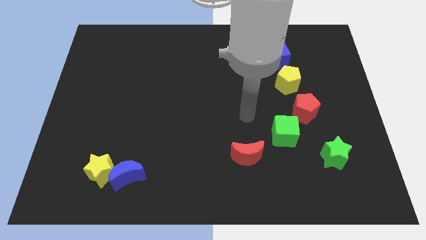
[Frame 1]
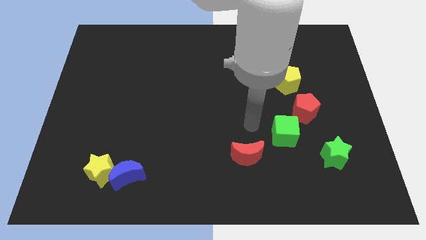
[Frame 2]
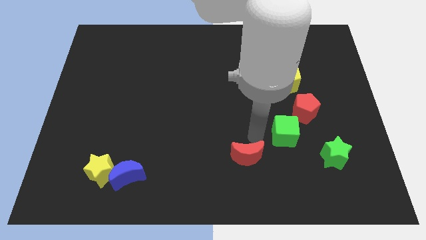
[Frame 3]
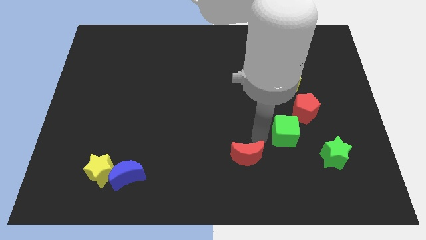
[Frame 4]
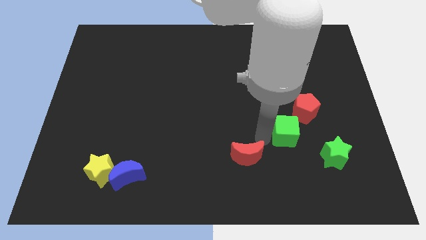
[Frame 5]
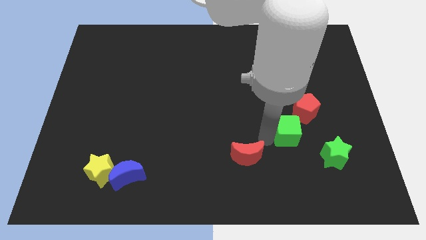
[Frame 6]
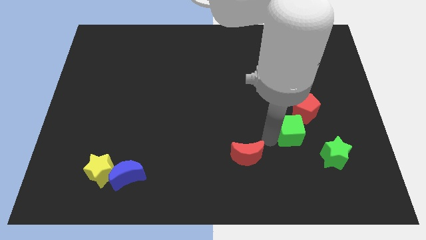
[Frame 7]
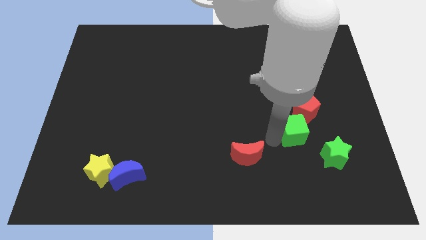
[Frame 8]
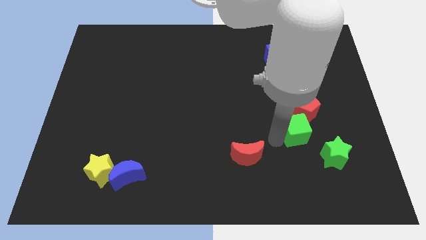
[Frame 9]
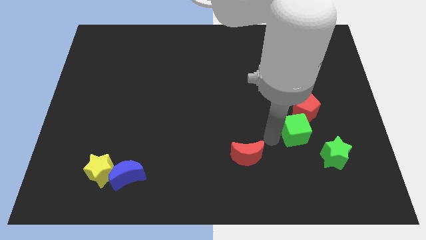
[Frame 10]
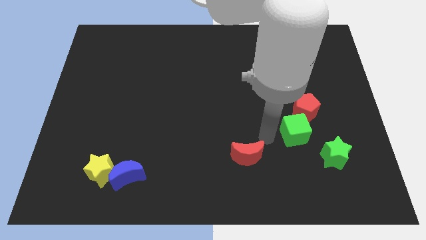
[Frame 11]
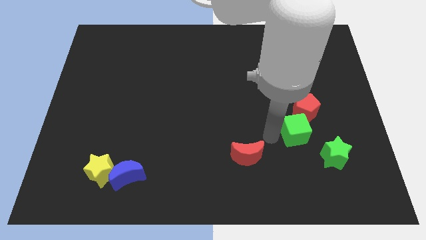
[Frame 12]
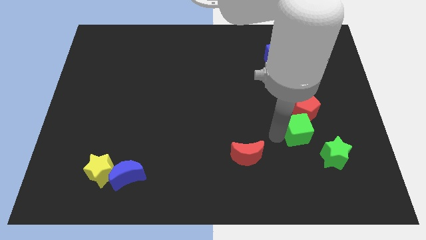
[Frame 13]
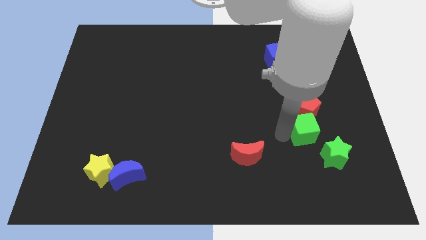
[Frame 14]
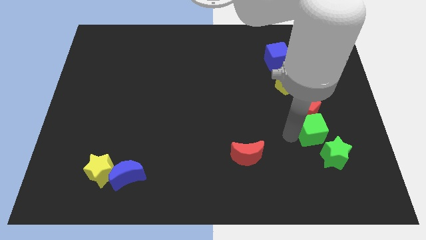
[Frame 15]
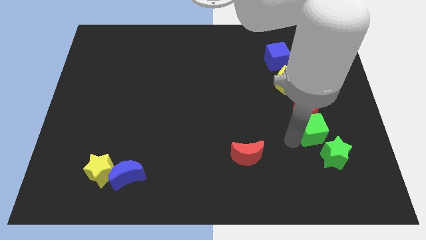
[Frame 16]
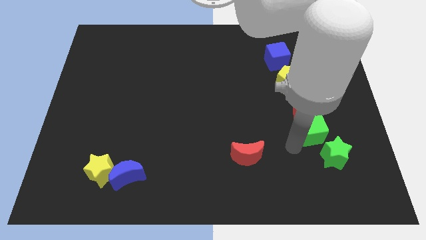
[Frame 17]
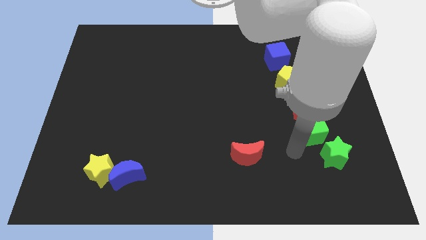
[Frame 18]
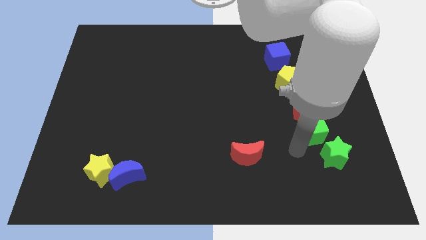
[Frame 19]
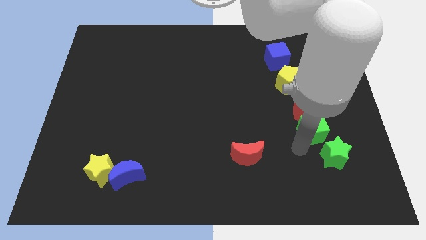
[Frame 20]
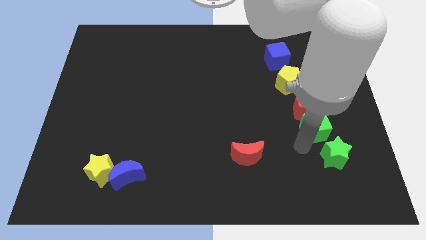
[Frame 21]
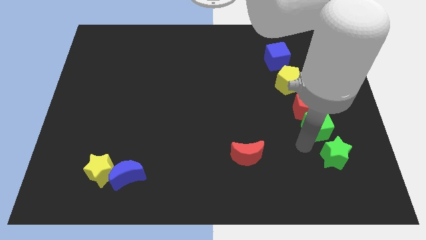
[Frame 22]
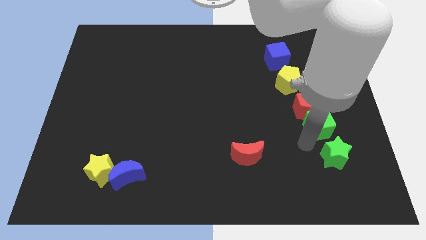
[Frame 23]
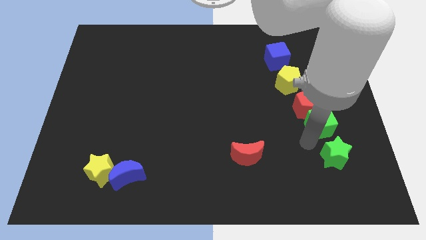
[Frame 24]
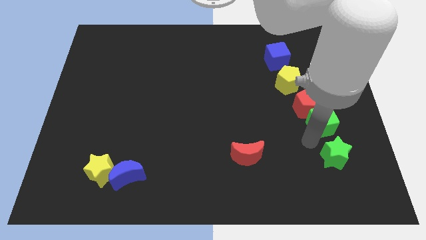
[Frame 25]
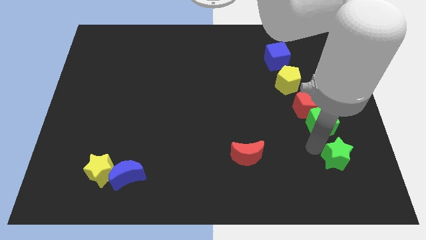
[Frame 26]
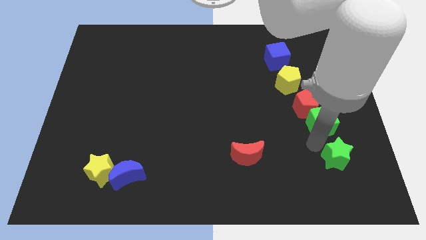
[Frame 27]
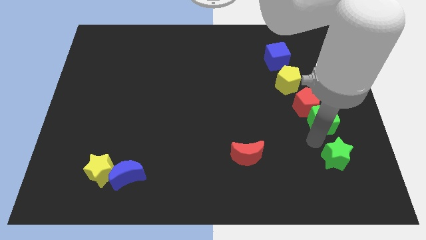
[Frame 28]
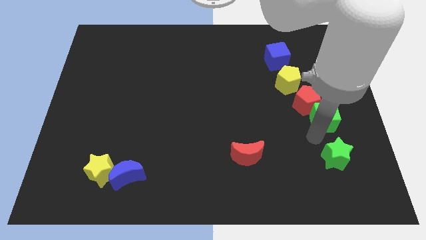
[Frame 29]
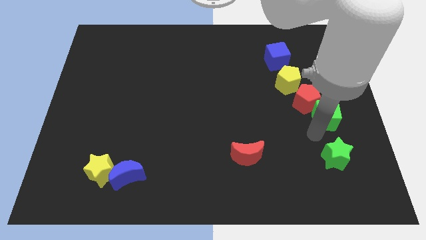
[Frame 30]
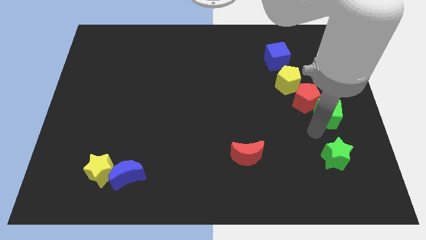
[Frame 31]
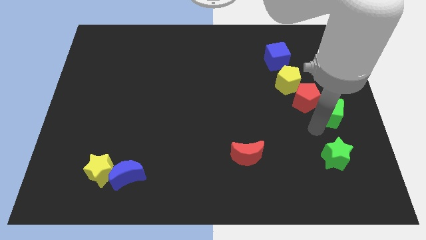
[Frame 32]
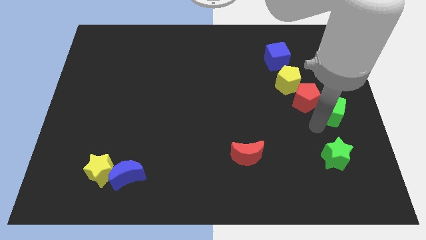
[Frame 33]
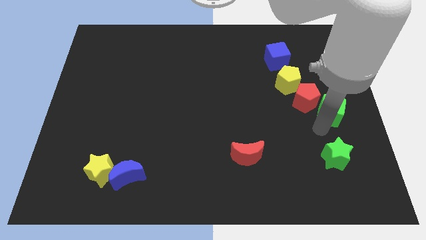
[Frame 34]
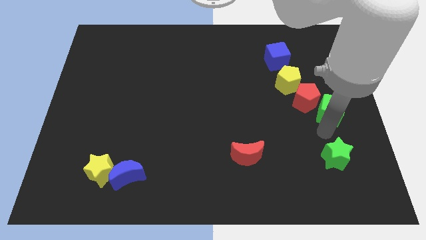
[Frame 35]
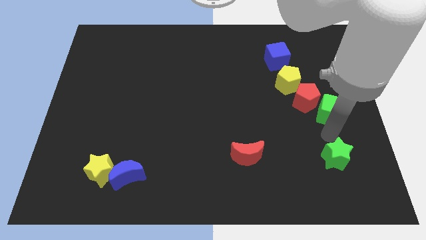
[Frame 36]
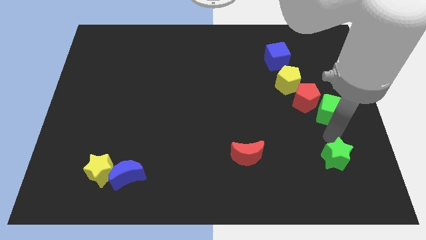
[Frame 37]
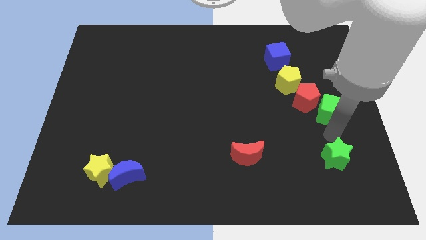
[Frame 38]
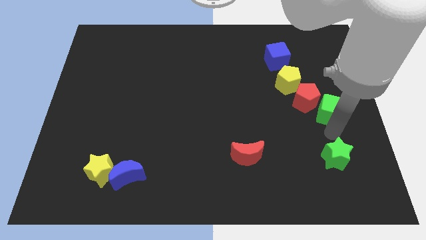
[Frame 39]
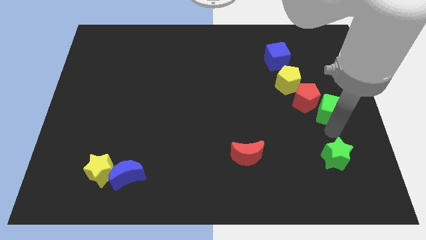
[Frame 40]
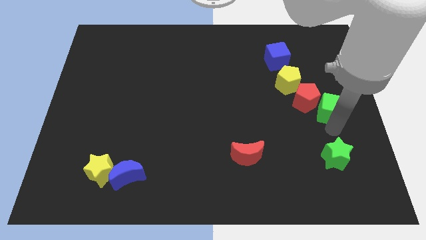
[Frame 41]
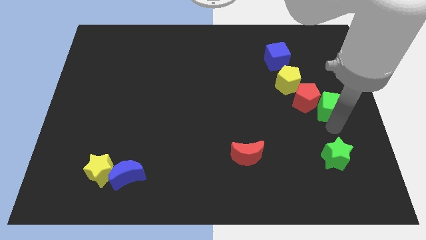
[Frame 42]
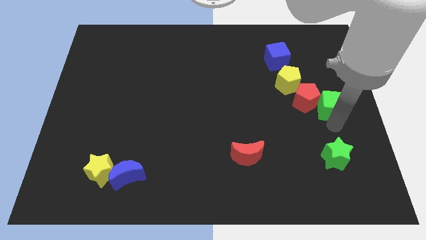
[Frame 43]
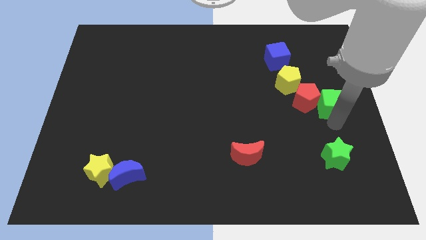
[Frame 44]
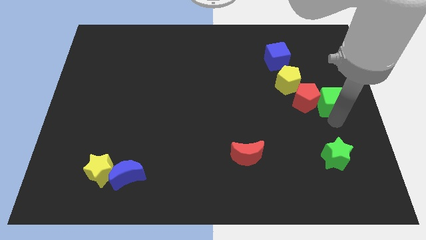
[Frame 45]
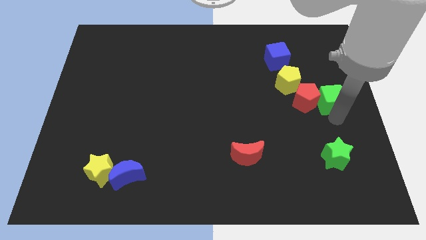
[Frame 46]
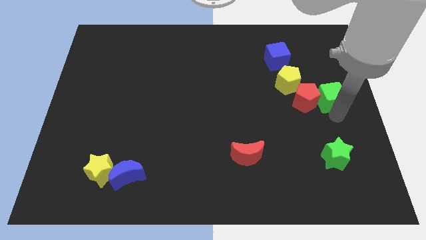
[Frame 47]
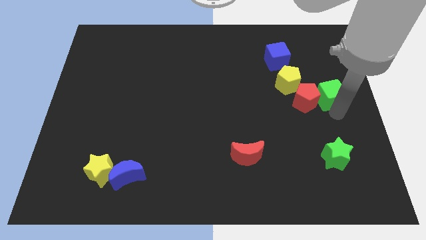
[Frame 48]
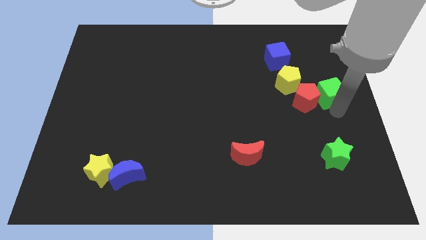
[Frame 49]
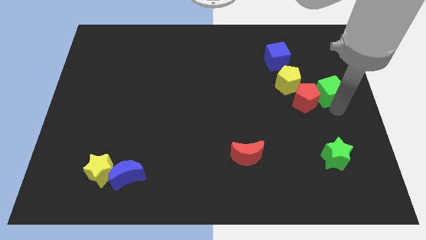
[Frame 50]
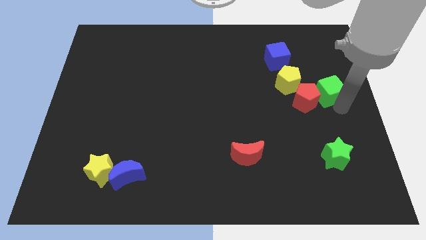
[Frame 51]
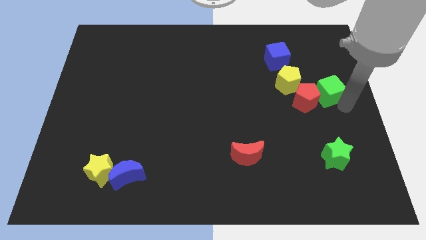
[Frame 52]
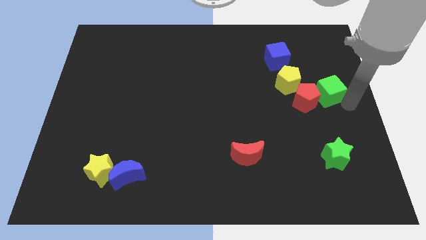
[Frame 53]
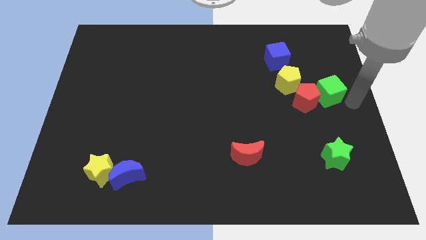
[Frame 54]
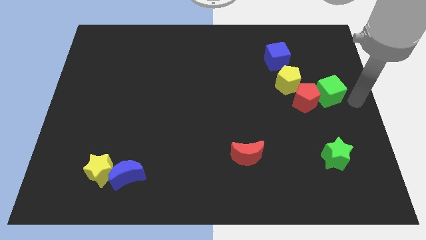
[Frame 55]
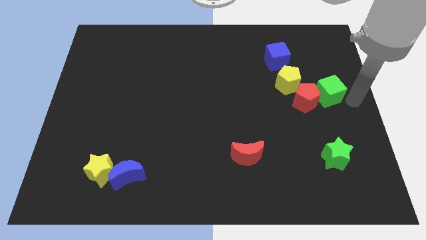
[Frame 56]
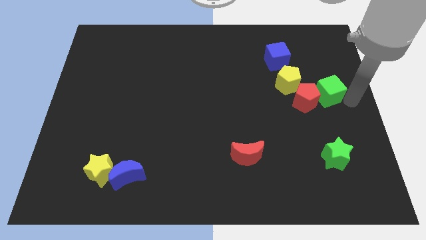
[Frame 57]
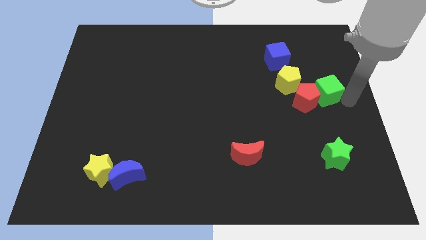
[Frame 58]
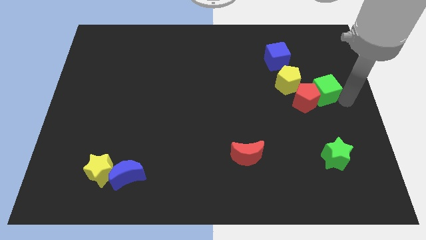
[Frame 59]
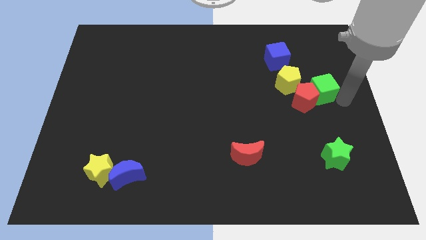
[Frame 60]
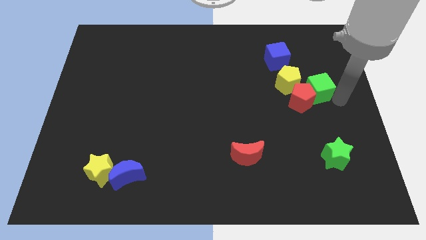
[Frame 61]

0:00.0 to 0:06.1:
move the green cube to the top of the red pentagon
